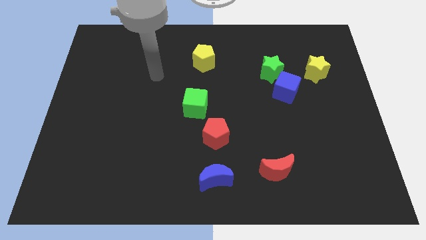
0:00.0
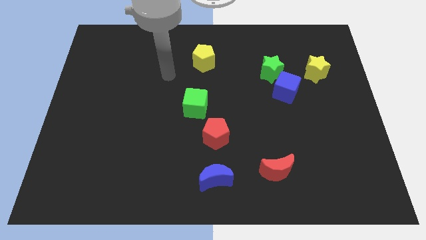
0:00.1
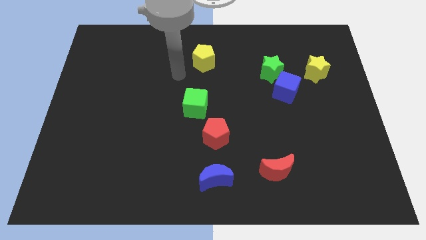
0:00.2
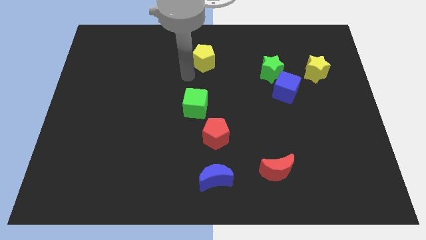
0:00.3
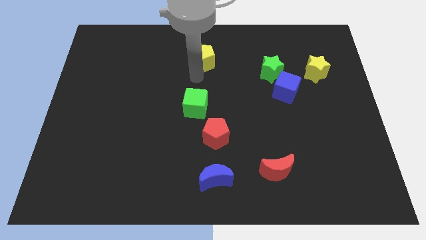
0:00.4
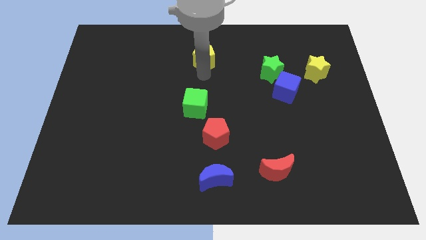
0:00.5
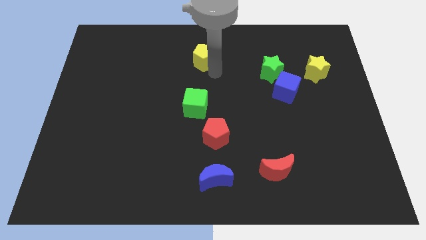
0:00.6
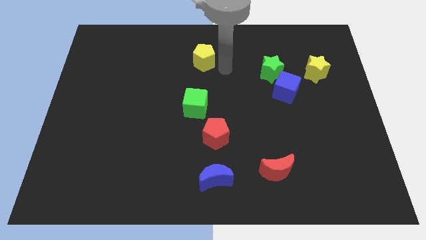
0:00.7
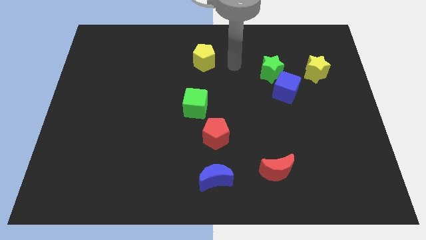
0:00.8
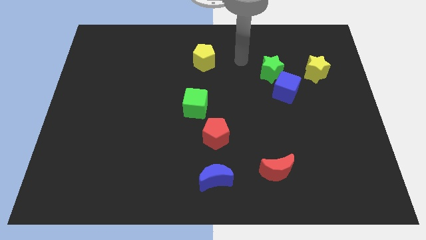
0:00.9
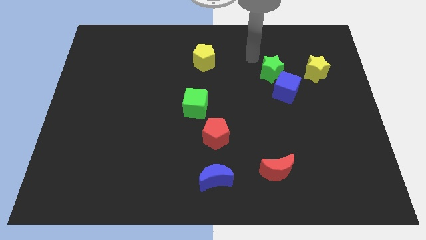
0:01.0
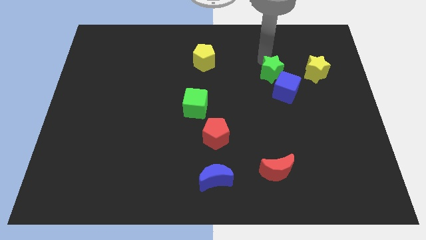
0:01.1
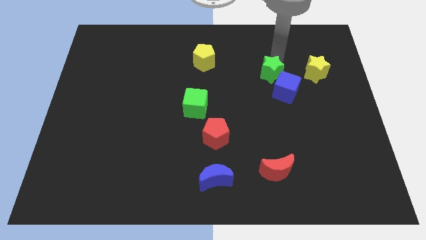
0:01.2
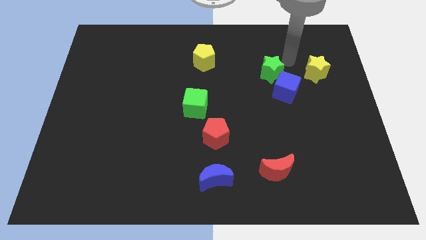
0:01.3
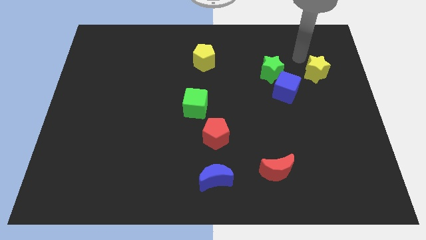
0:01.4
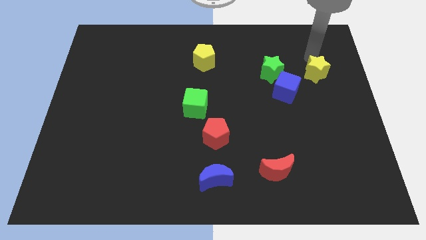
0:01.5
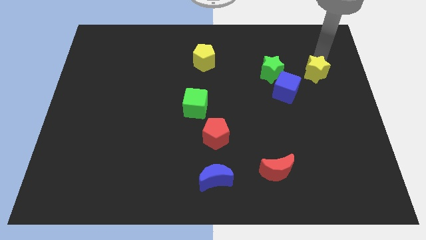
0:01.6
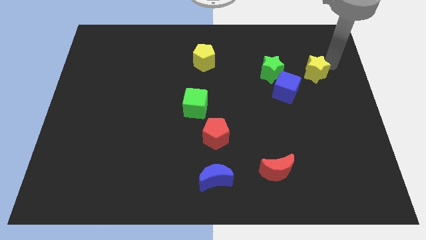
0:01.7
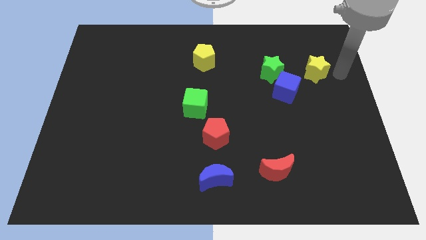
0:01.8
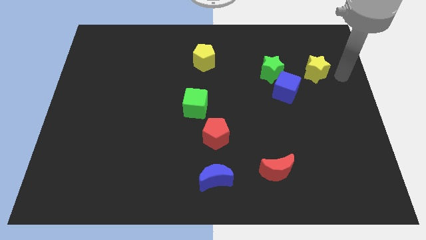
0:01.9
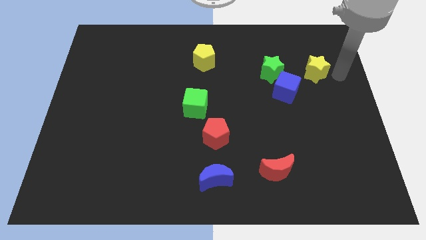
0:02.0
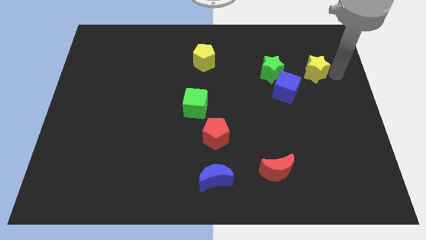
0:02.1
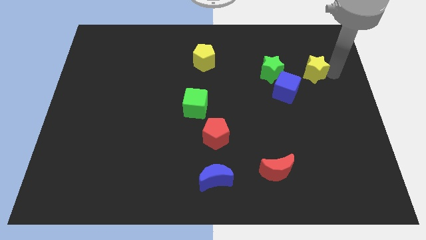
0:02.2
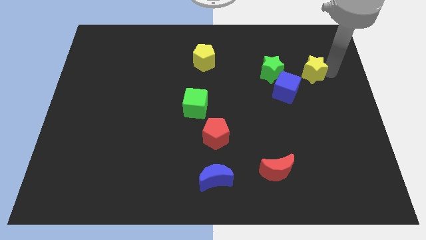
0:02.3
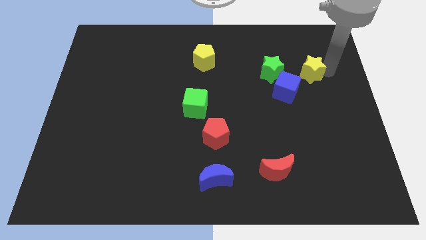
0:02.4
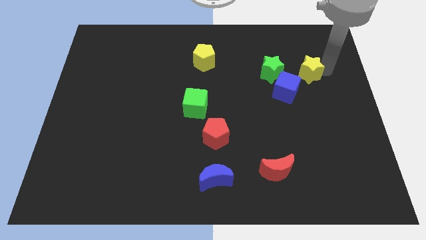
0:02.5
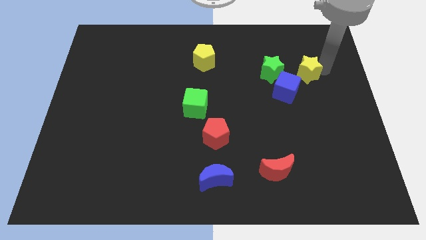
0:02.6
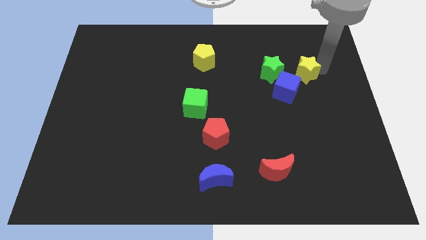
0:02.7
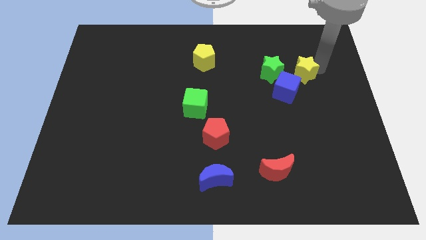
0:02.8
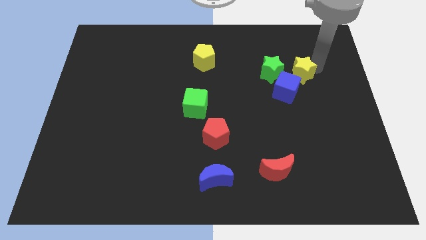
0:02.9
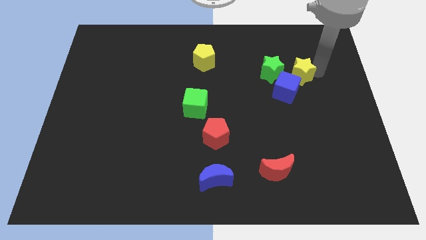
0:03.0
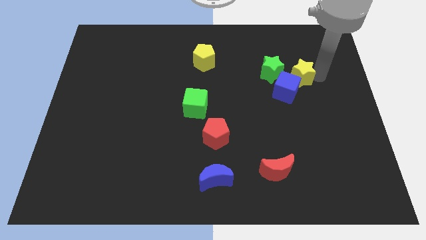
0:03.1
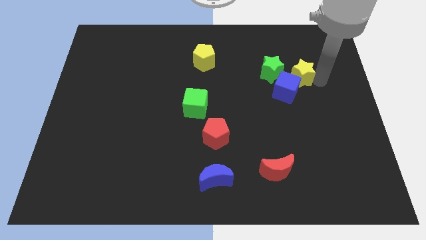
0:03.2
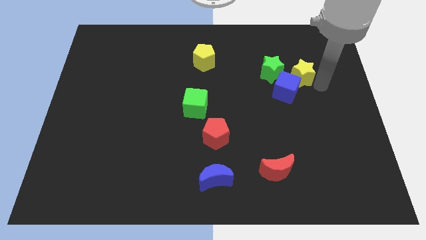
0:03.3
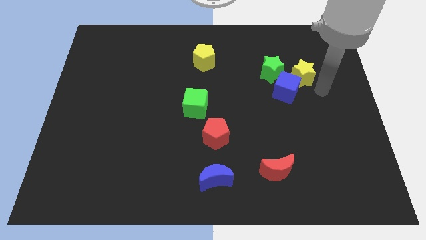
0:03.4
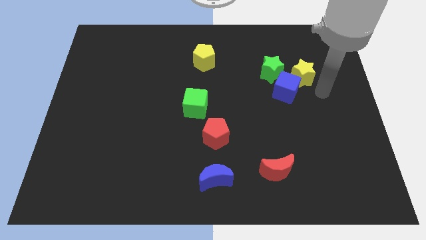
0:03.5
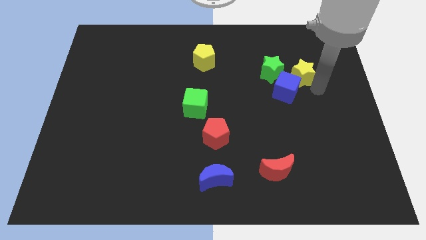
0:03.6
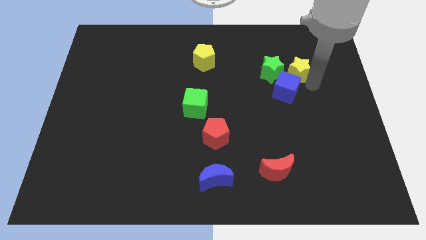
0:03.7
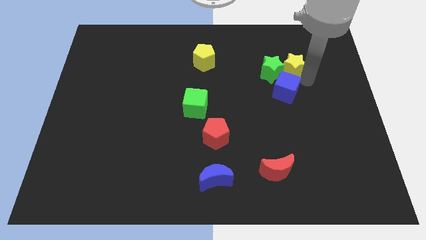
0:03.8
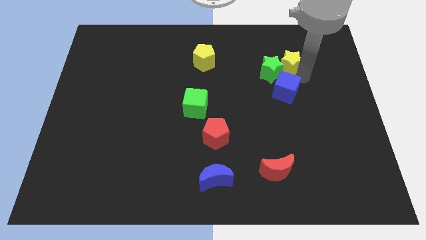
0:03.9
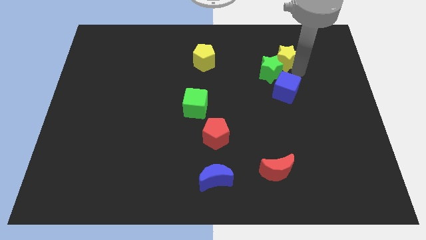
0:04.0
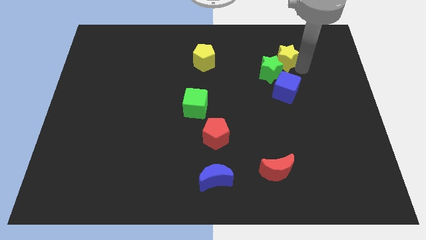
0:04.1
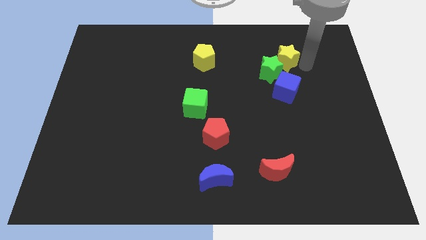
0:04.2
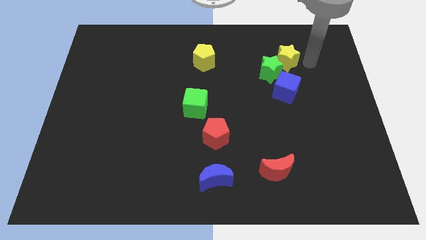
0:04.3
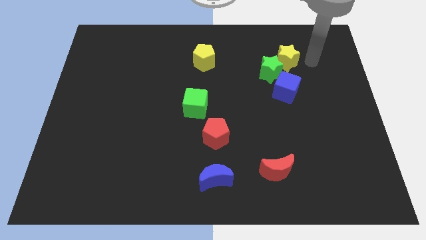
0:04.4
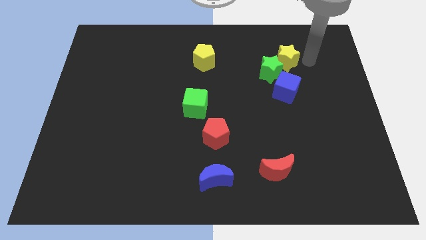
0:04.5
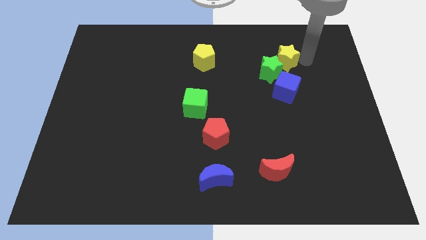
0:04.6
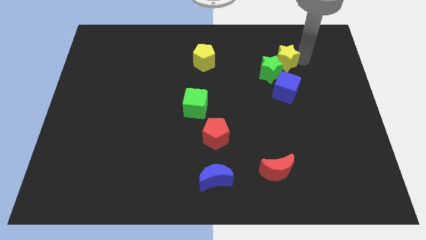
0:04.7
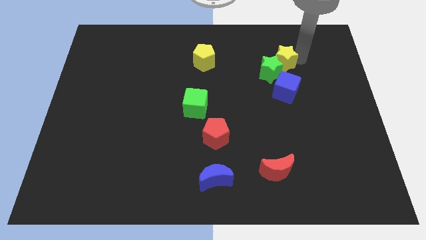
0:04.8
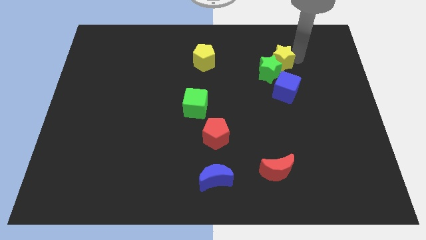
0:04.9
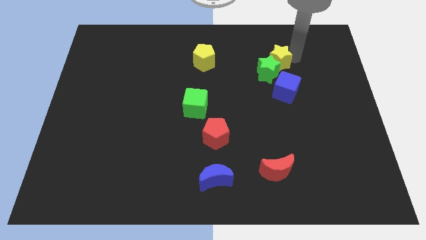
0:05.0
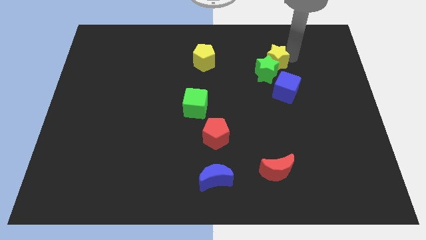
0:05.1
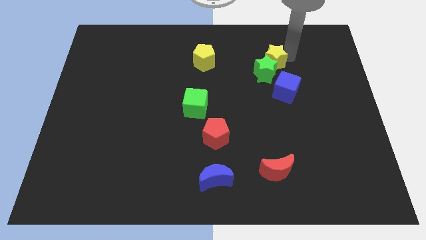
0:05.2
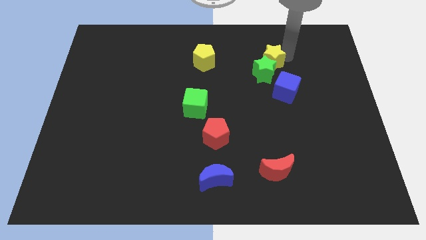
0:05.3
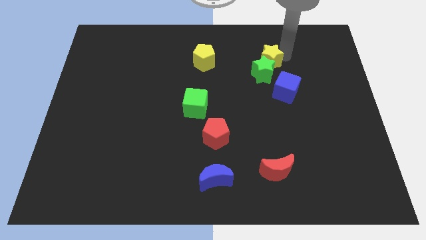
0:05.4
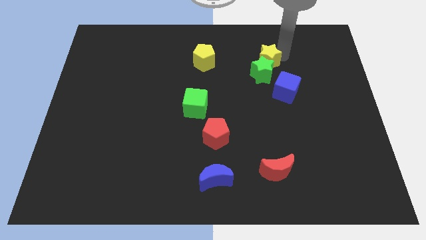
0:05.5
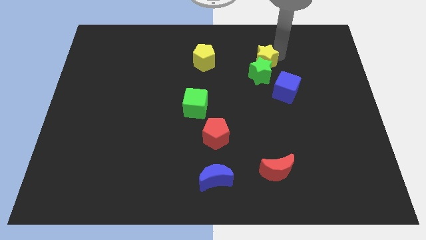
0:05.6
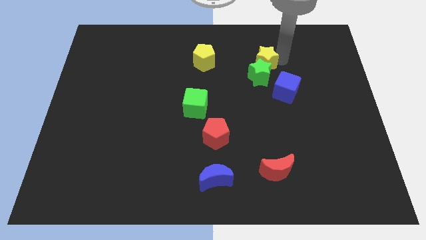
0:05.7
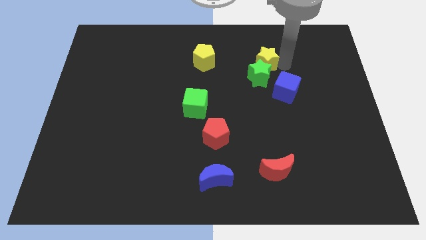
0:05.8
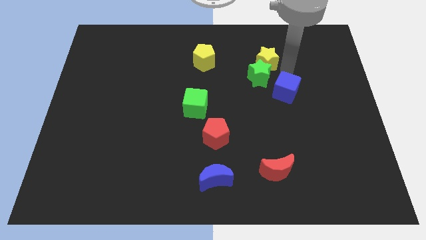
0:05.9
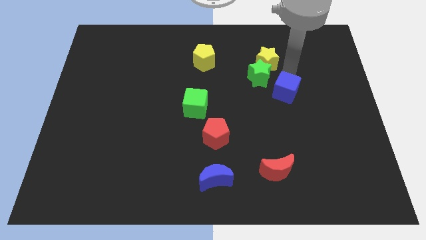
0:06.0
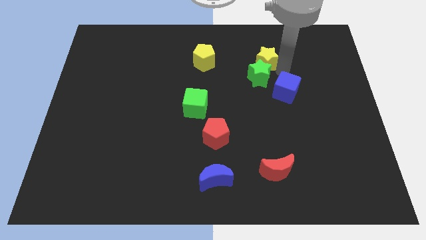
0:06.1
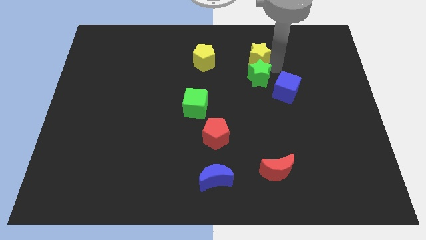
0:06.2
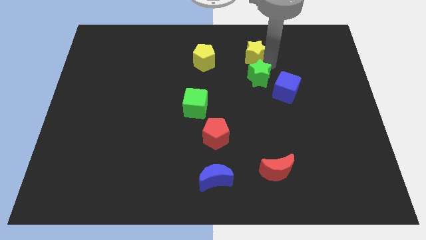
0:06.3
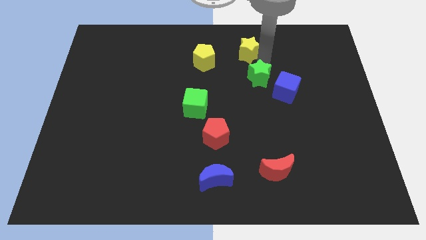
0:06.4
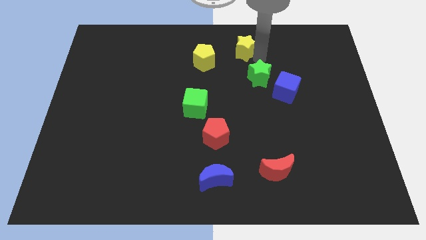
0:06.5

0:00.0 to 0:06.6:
slide the yellow star to the top side
